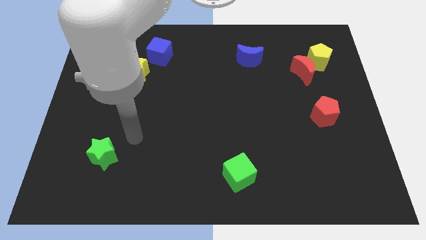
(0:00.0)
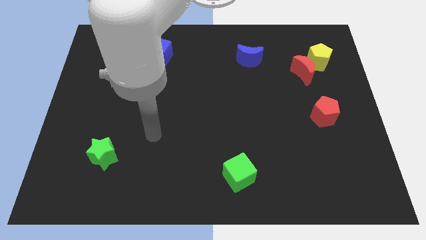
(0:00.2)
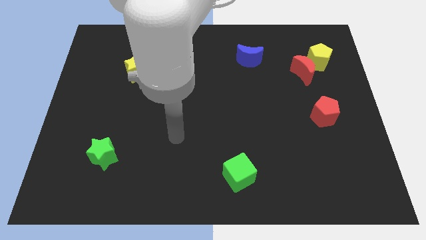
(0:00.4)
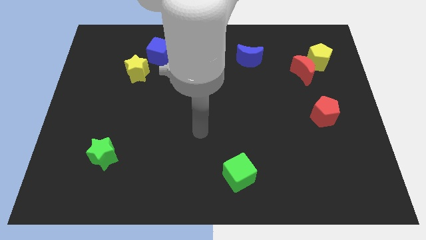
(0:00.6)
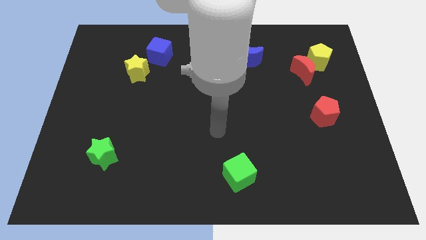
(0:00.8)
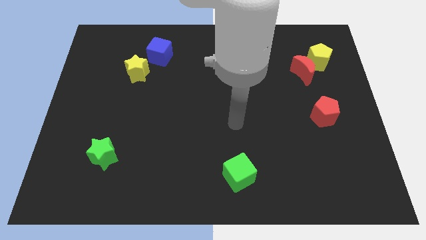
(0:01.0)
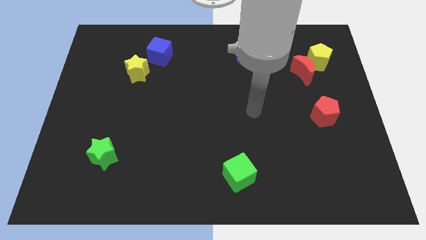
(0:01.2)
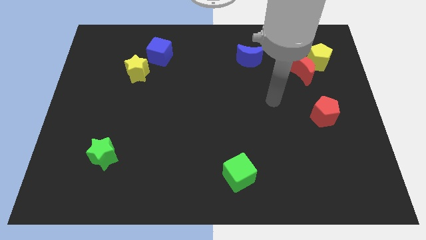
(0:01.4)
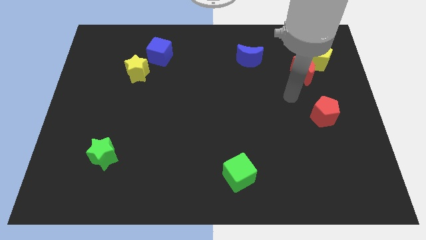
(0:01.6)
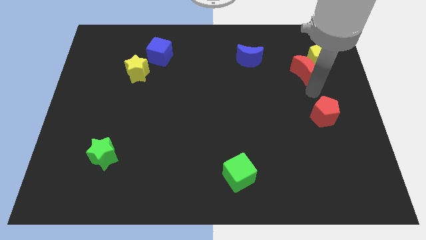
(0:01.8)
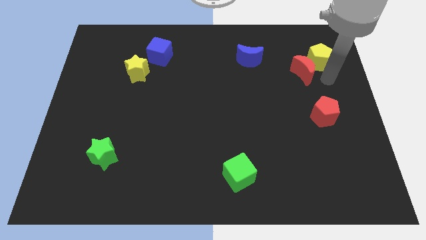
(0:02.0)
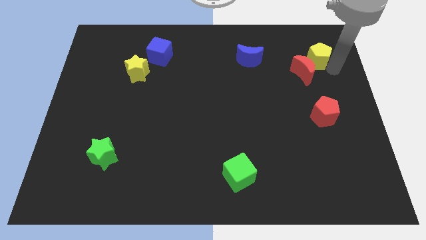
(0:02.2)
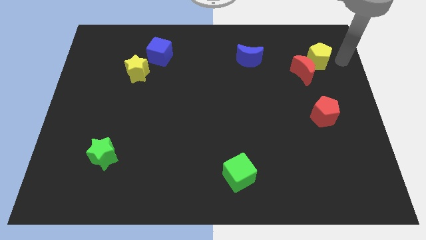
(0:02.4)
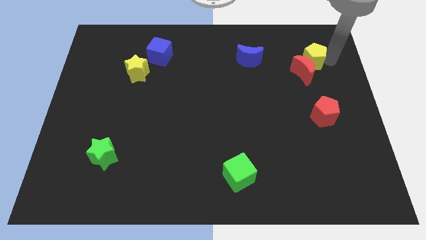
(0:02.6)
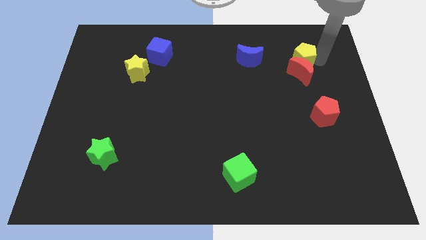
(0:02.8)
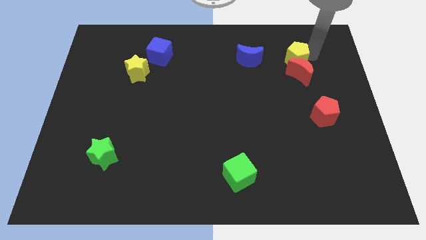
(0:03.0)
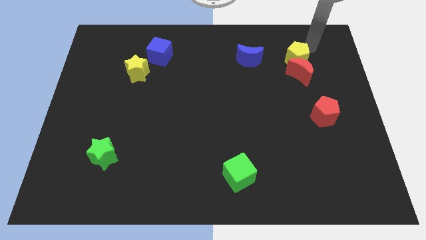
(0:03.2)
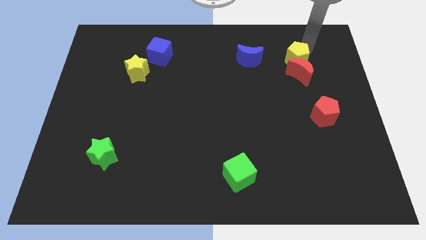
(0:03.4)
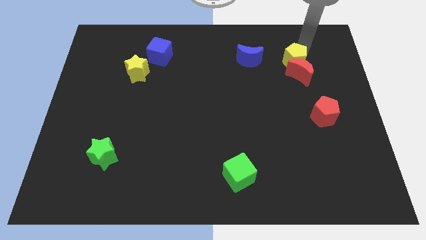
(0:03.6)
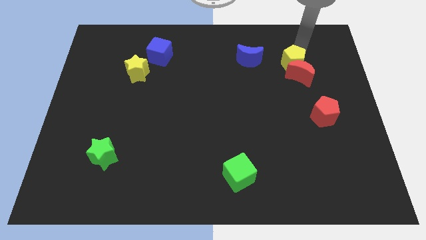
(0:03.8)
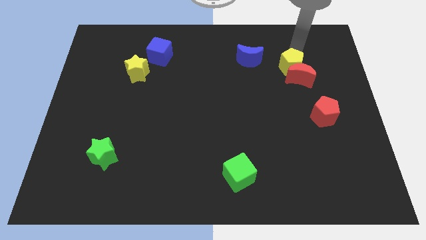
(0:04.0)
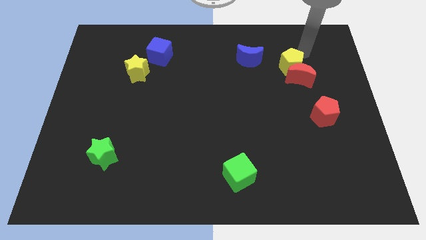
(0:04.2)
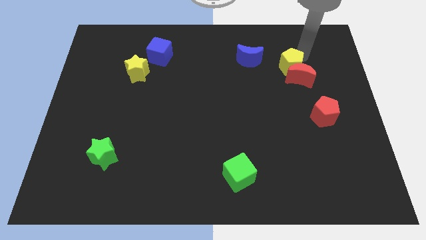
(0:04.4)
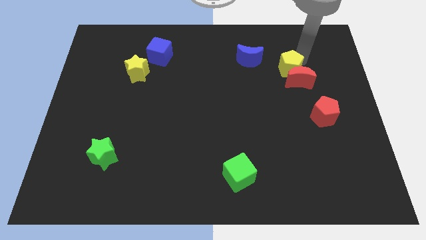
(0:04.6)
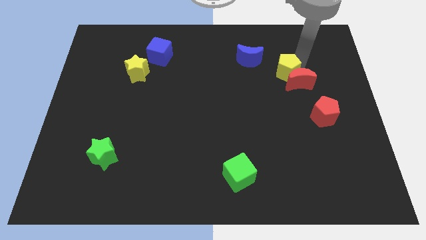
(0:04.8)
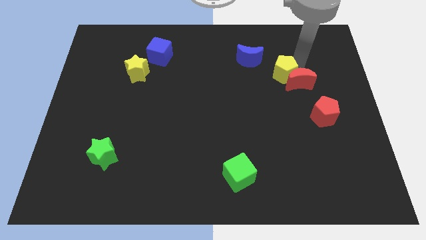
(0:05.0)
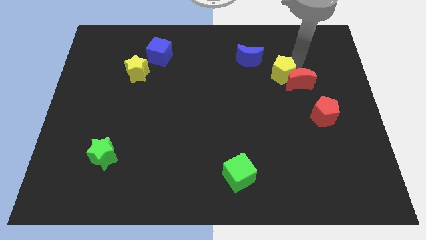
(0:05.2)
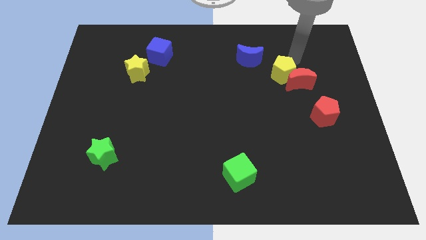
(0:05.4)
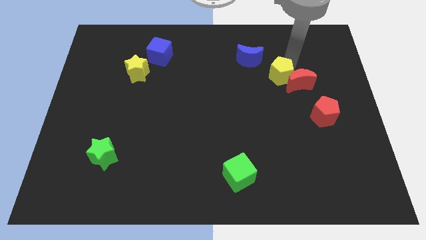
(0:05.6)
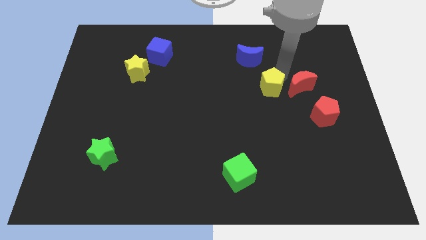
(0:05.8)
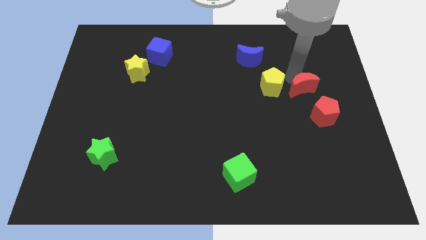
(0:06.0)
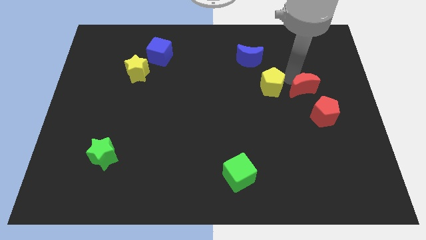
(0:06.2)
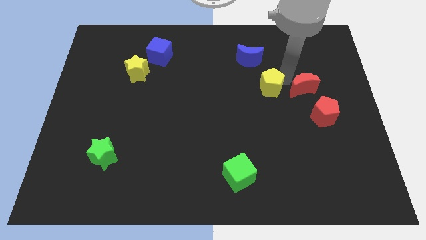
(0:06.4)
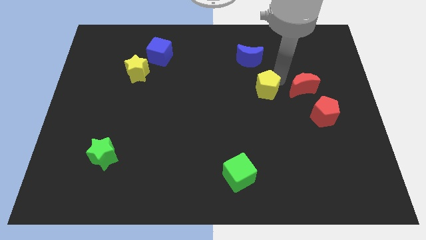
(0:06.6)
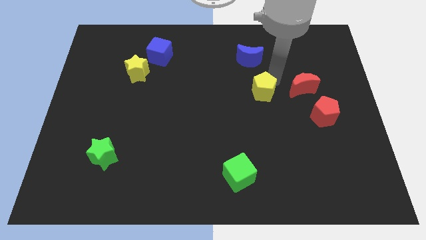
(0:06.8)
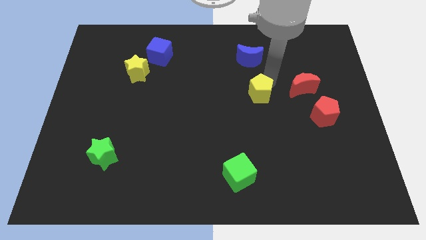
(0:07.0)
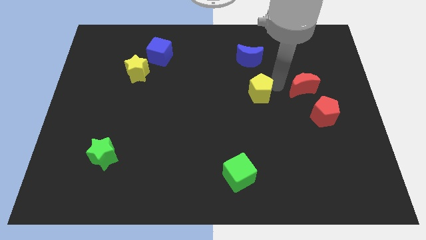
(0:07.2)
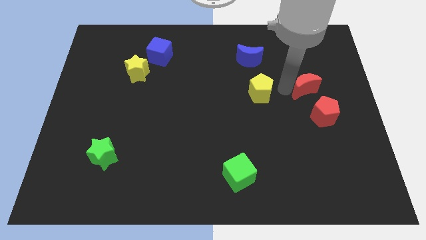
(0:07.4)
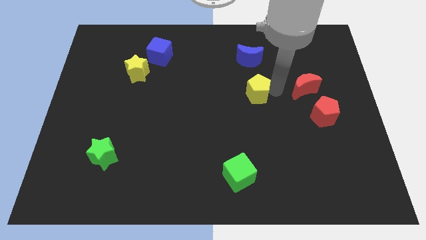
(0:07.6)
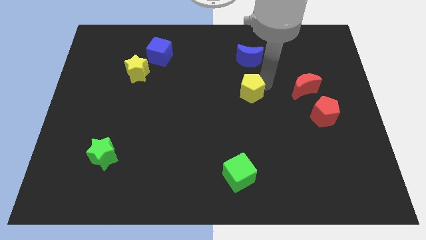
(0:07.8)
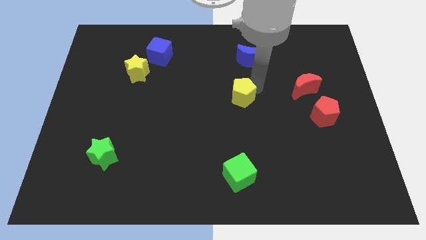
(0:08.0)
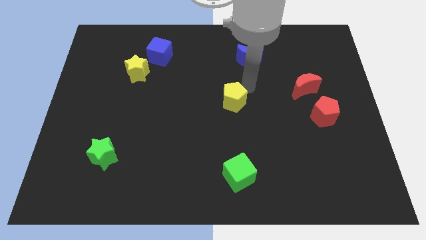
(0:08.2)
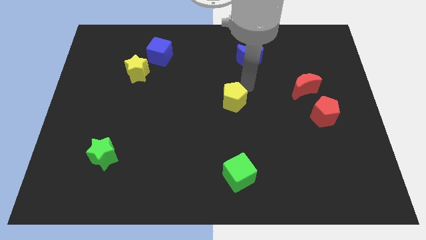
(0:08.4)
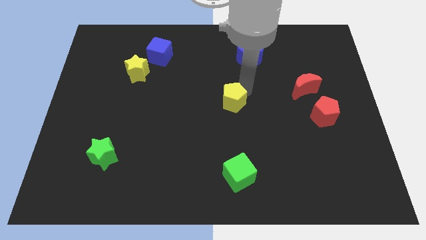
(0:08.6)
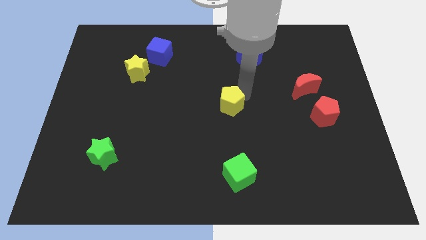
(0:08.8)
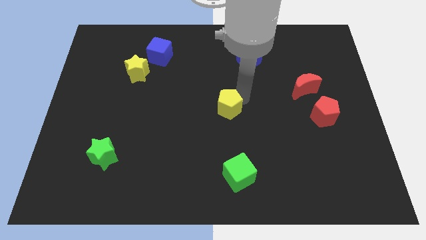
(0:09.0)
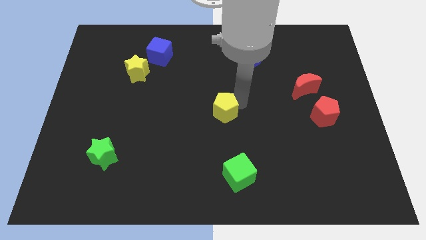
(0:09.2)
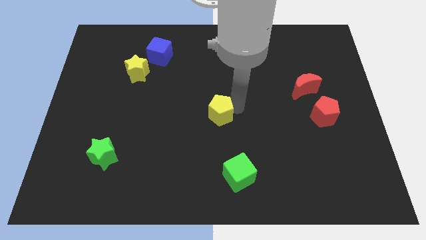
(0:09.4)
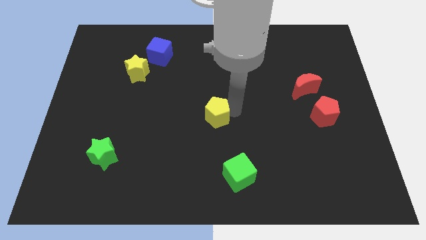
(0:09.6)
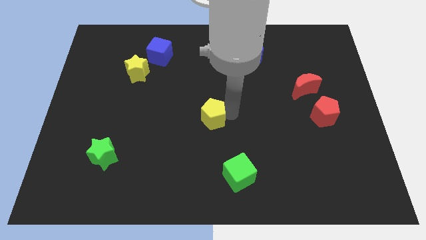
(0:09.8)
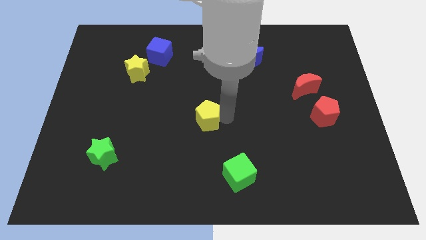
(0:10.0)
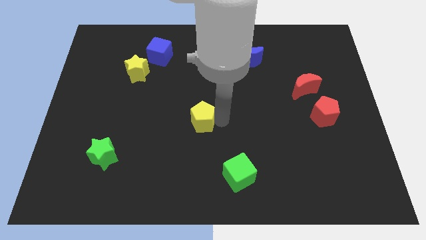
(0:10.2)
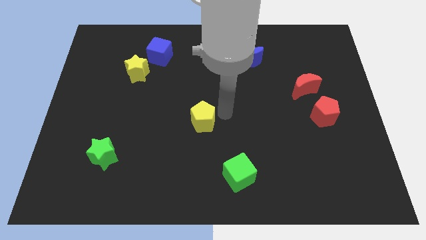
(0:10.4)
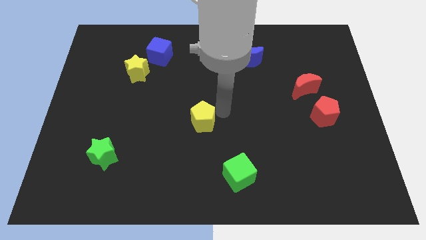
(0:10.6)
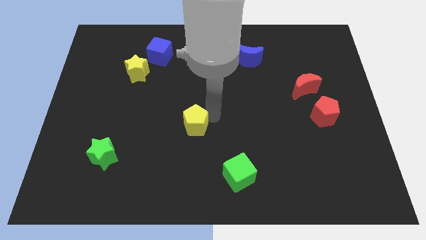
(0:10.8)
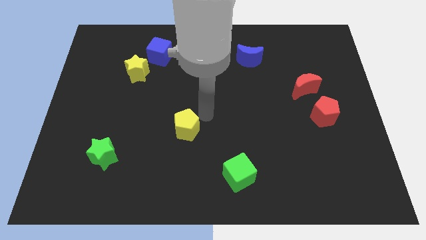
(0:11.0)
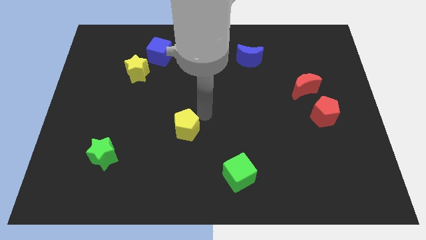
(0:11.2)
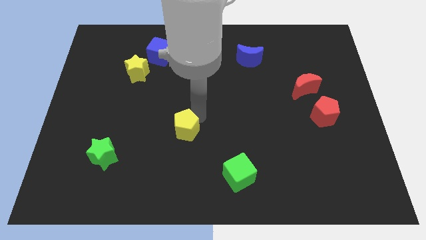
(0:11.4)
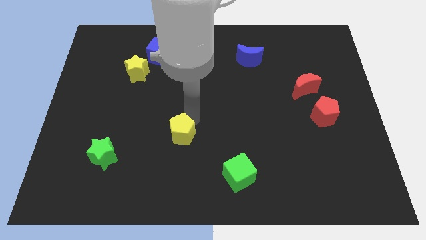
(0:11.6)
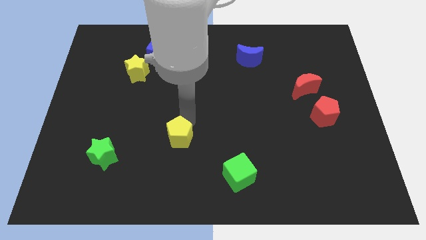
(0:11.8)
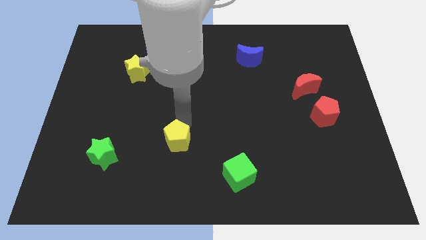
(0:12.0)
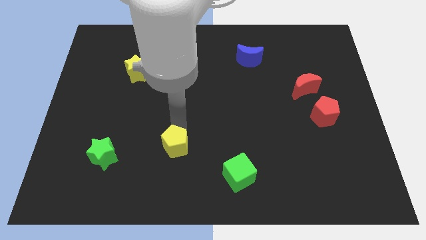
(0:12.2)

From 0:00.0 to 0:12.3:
slide the yellow pentagon just right of the green star

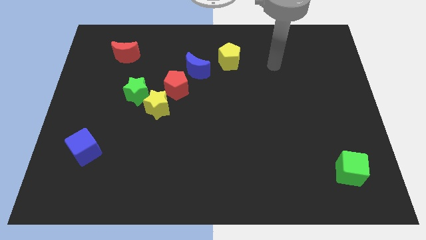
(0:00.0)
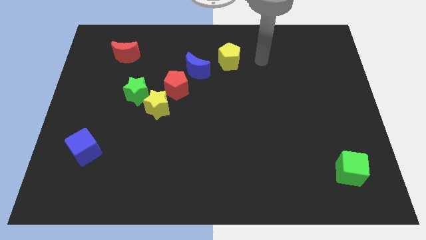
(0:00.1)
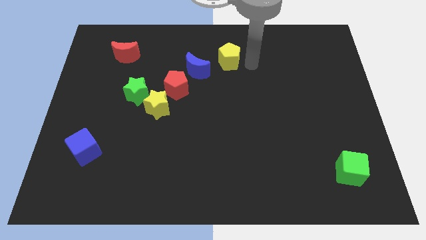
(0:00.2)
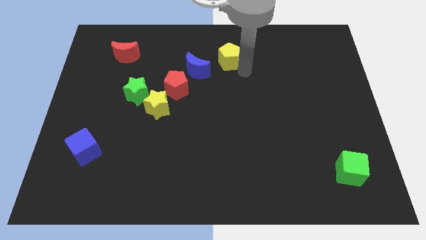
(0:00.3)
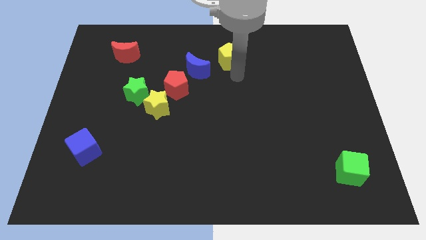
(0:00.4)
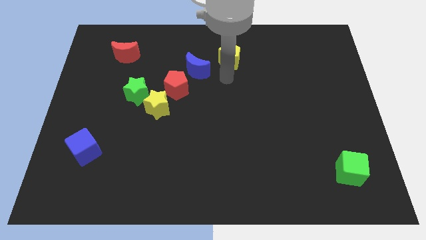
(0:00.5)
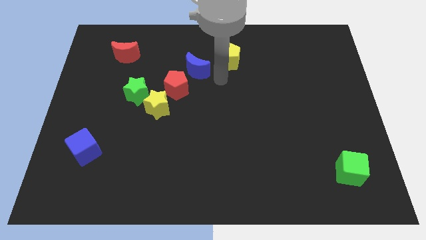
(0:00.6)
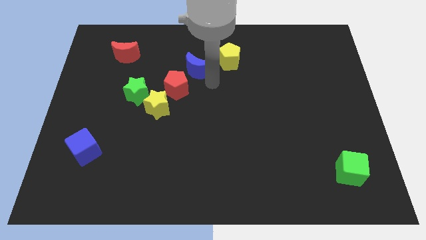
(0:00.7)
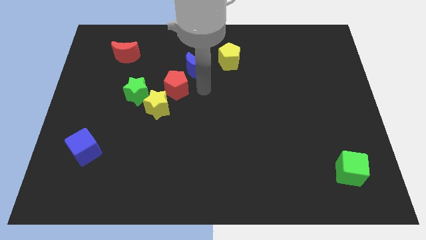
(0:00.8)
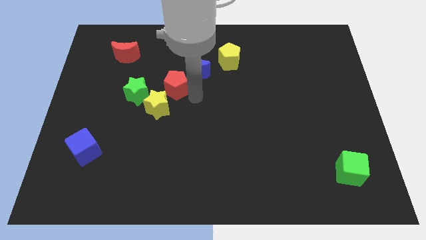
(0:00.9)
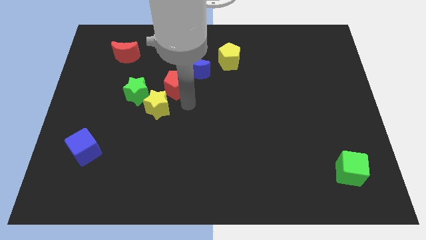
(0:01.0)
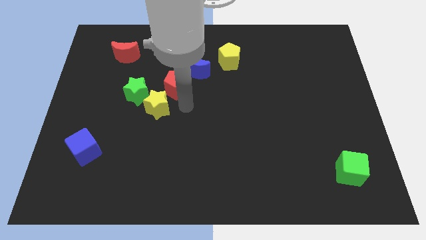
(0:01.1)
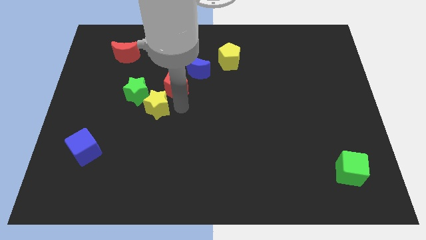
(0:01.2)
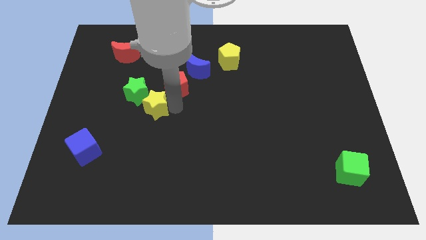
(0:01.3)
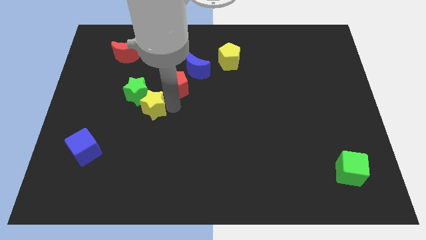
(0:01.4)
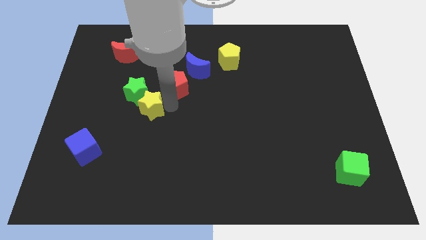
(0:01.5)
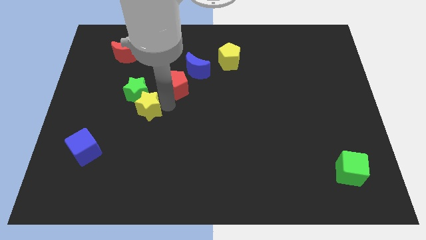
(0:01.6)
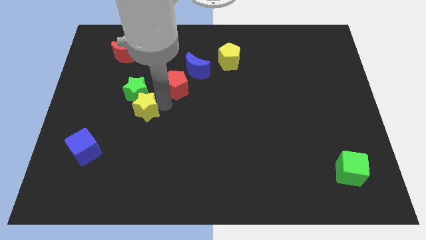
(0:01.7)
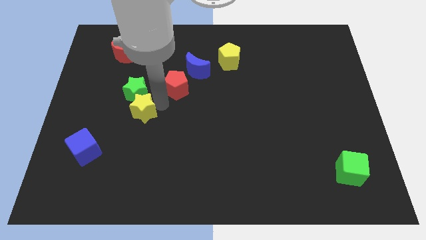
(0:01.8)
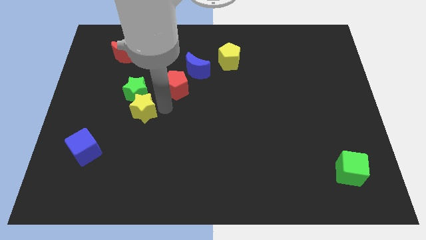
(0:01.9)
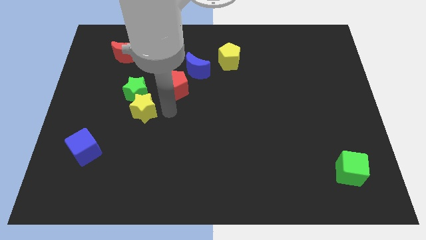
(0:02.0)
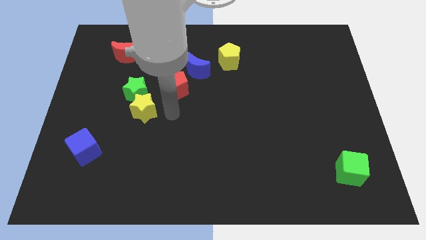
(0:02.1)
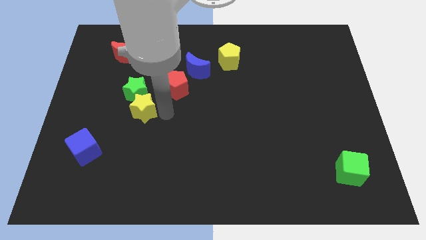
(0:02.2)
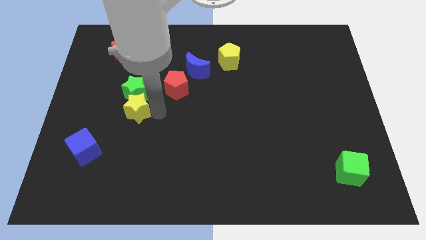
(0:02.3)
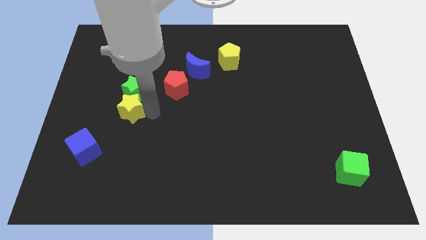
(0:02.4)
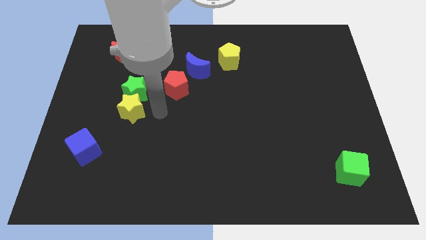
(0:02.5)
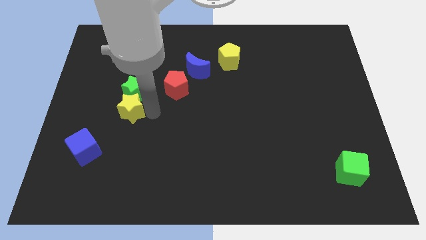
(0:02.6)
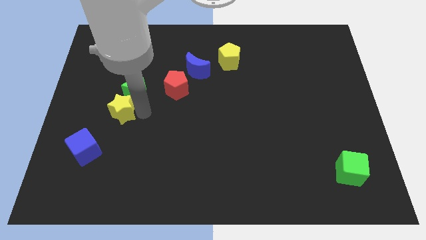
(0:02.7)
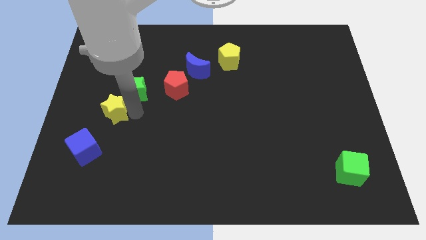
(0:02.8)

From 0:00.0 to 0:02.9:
slide the yellow star to the top of the blue cube
